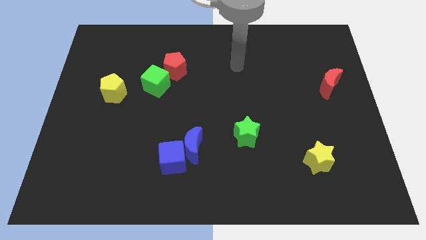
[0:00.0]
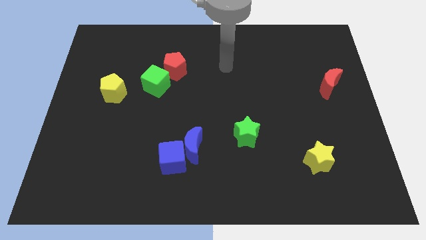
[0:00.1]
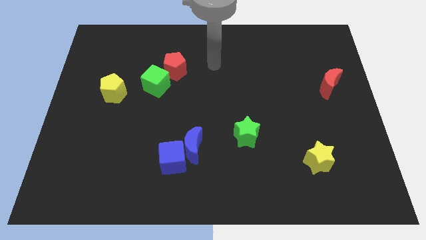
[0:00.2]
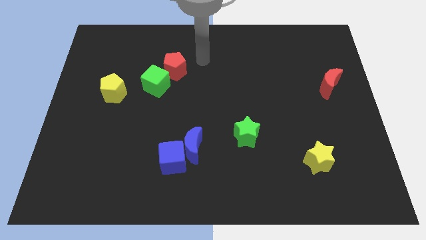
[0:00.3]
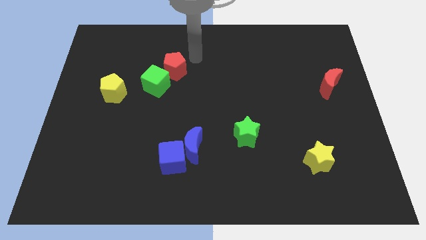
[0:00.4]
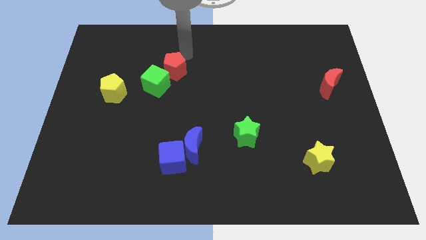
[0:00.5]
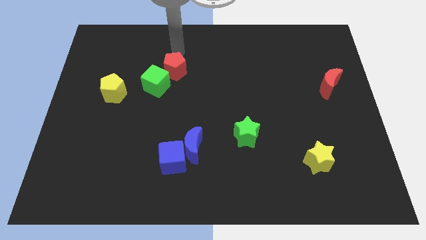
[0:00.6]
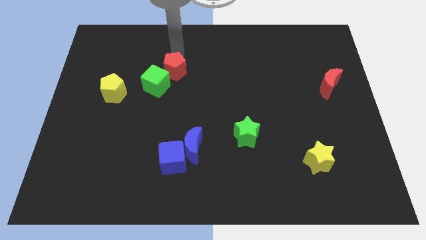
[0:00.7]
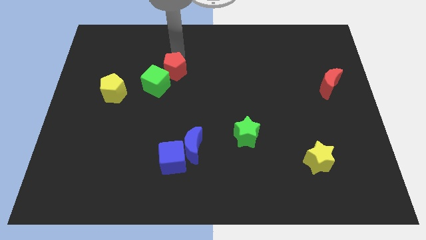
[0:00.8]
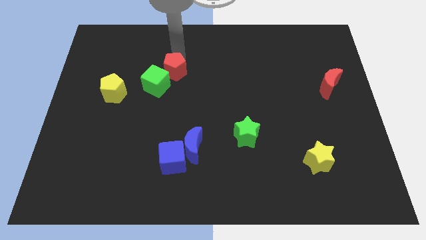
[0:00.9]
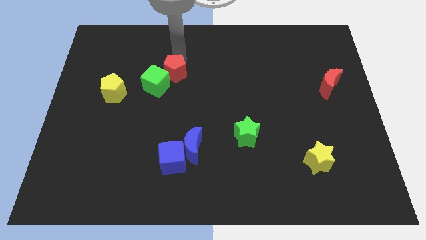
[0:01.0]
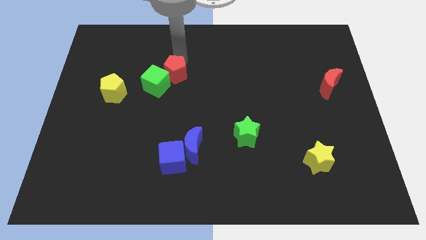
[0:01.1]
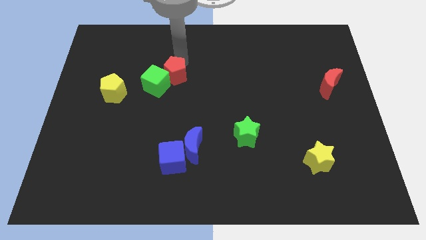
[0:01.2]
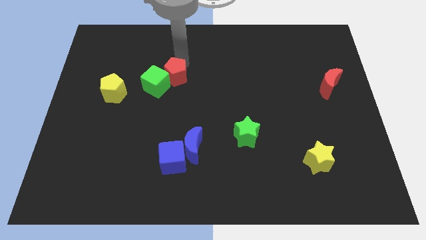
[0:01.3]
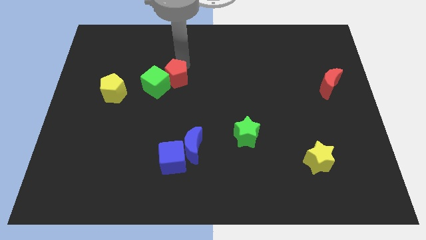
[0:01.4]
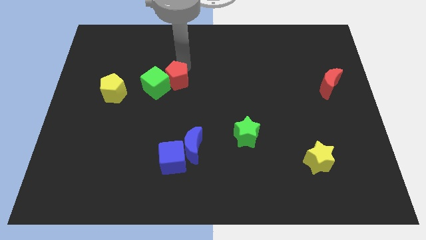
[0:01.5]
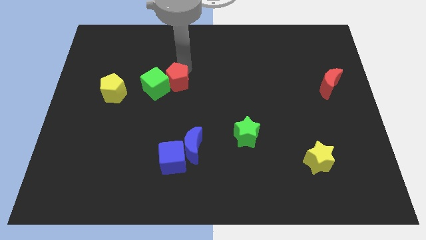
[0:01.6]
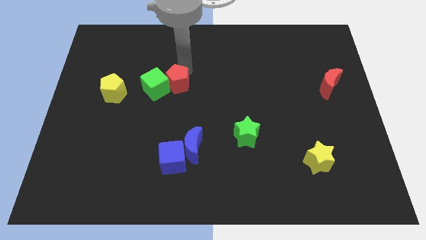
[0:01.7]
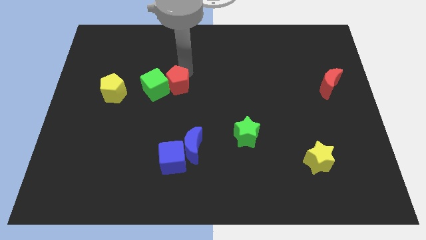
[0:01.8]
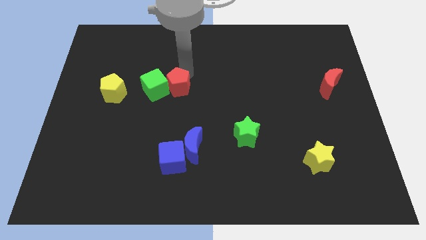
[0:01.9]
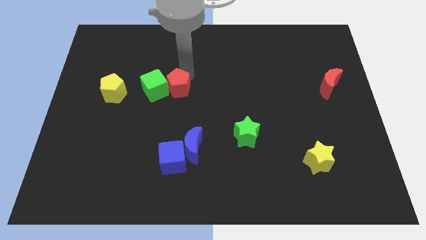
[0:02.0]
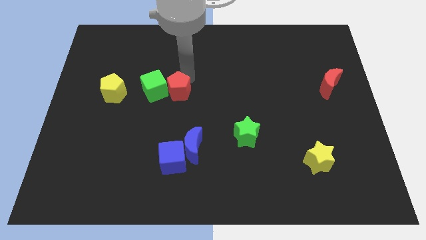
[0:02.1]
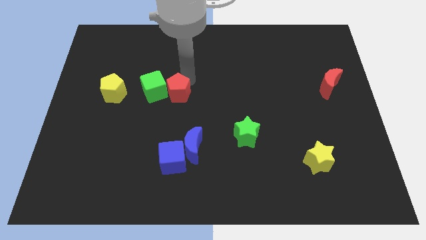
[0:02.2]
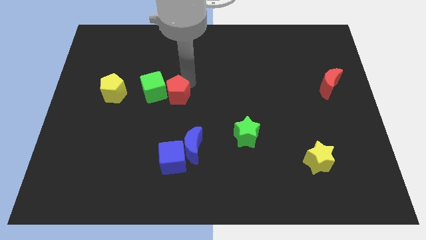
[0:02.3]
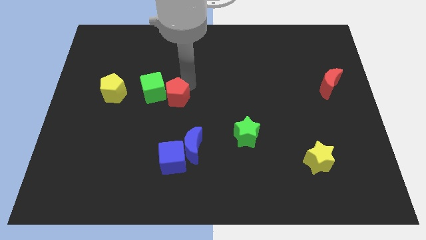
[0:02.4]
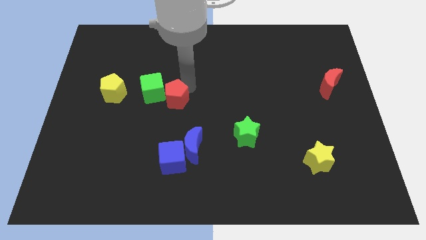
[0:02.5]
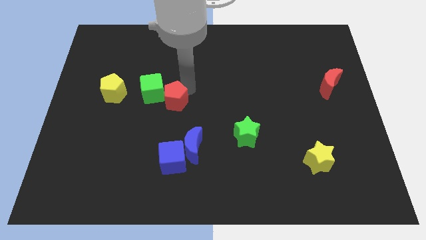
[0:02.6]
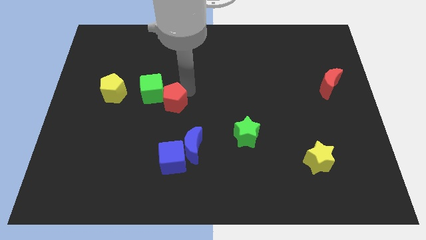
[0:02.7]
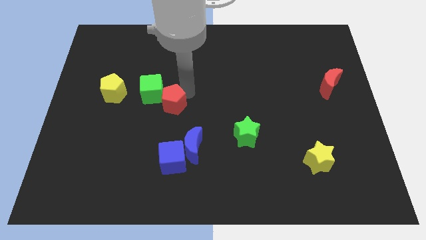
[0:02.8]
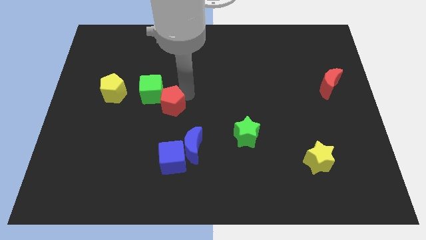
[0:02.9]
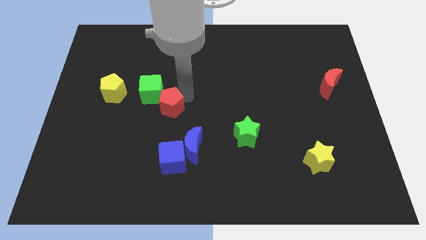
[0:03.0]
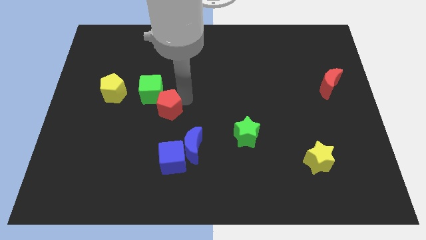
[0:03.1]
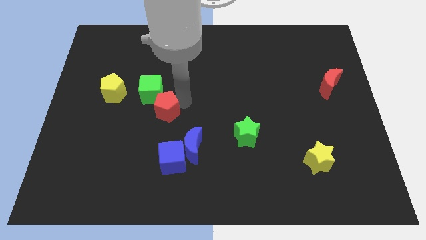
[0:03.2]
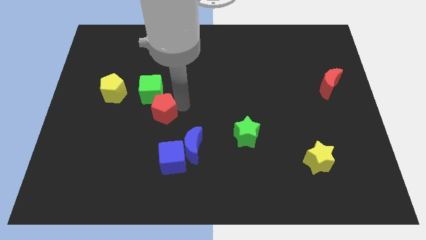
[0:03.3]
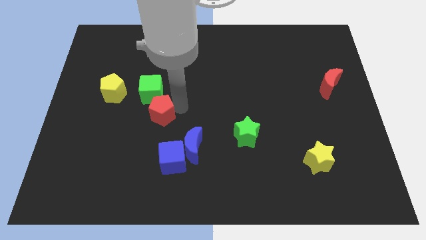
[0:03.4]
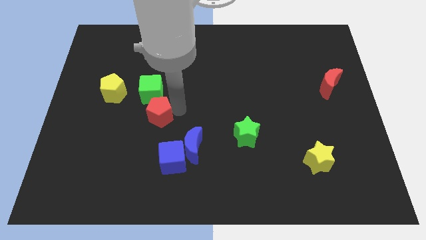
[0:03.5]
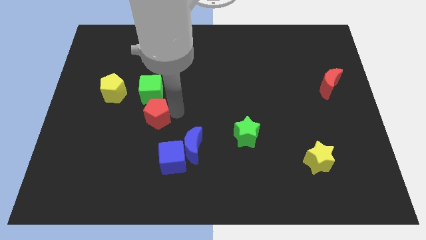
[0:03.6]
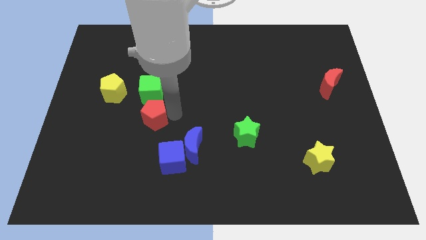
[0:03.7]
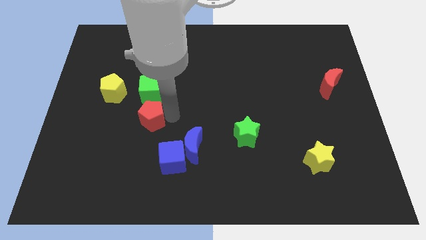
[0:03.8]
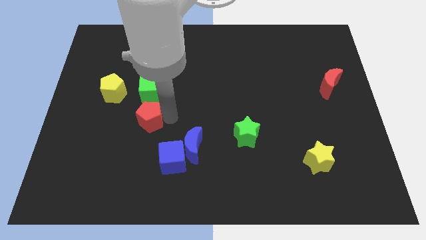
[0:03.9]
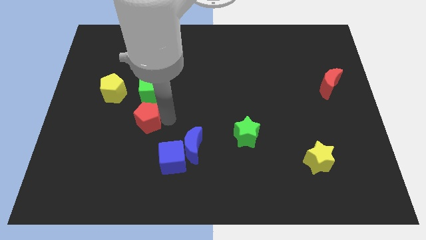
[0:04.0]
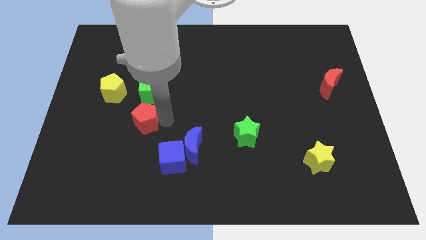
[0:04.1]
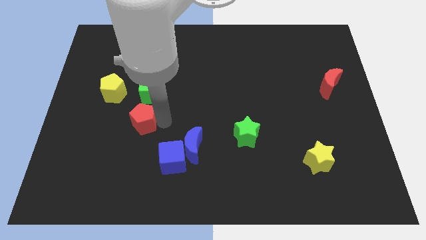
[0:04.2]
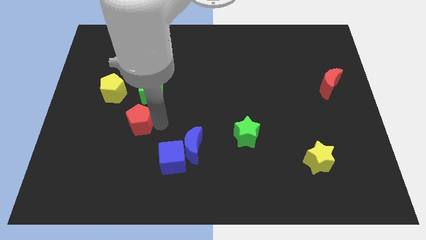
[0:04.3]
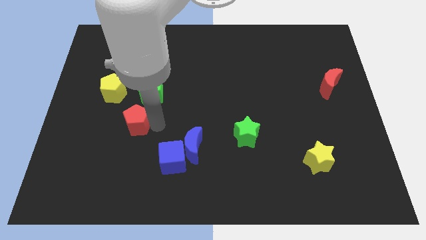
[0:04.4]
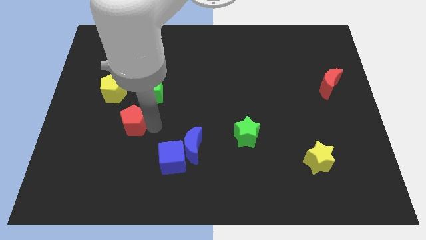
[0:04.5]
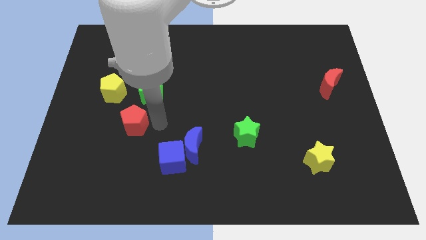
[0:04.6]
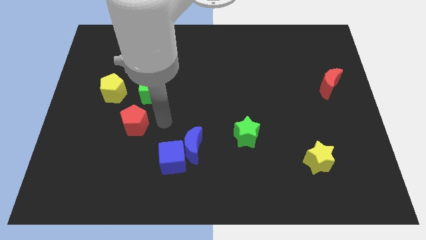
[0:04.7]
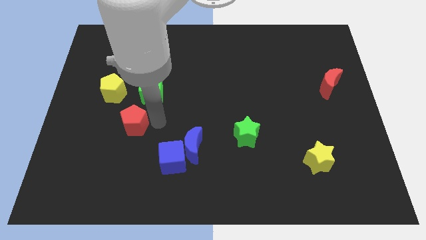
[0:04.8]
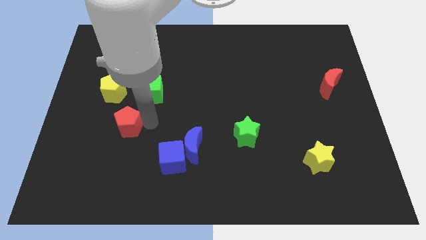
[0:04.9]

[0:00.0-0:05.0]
move the red pentagon to the bottom side of the yellow pentagon

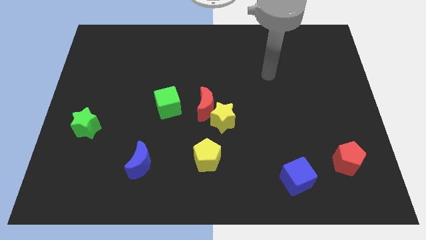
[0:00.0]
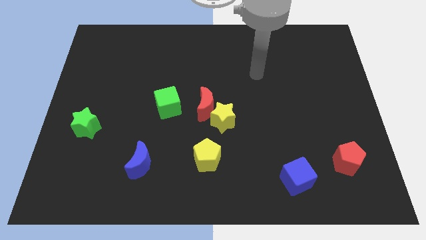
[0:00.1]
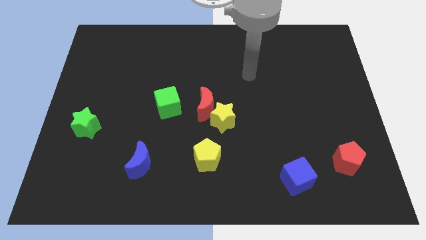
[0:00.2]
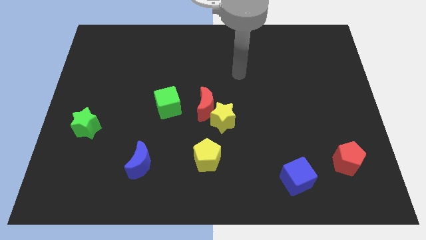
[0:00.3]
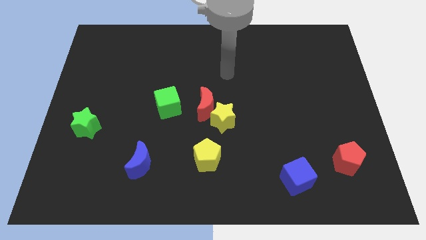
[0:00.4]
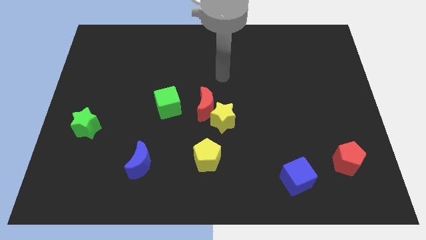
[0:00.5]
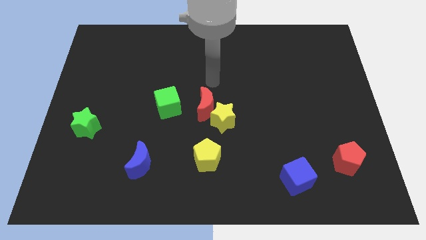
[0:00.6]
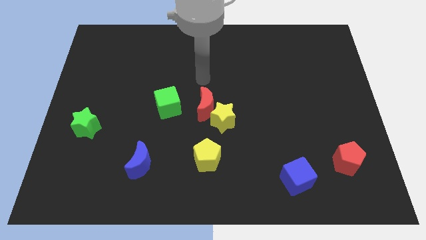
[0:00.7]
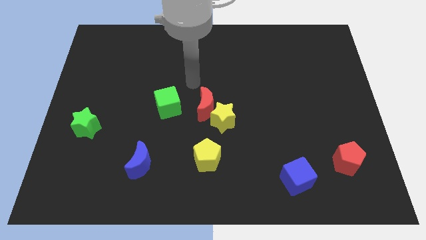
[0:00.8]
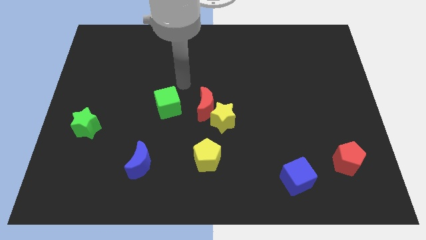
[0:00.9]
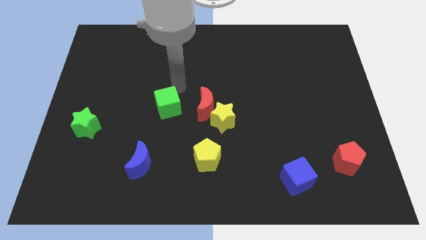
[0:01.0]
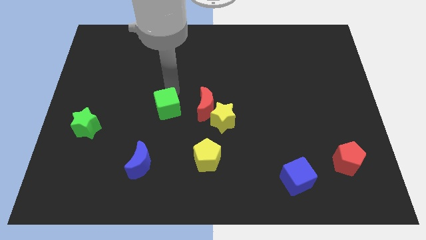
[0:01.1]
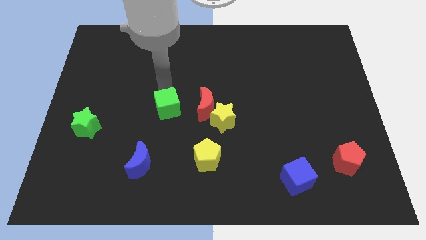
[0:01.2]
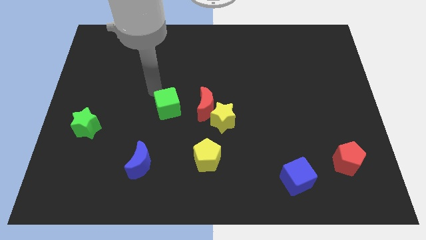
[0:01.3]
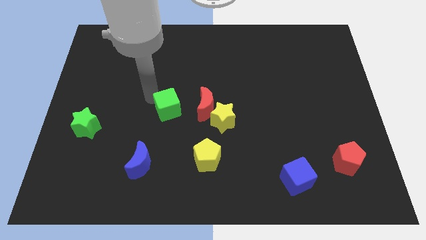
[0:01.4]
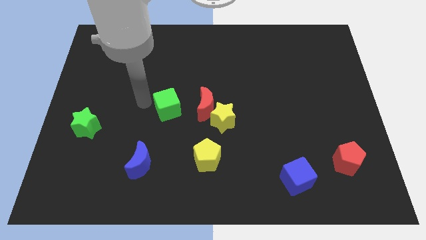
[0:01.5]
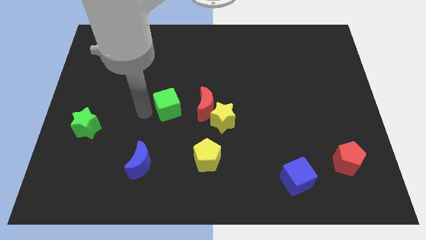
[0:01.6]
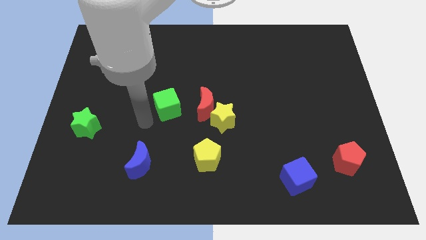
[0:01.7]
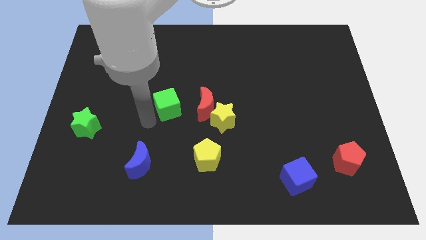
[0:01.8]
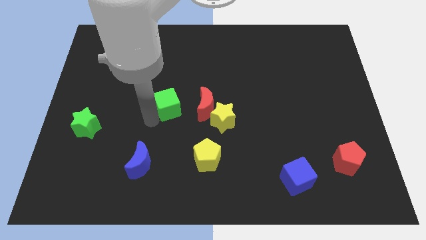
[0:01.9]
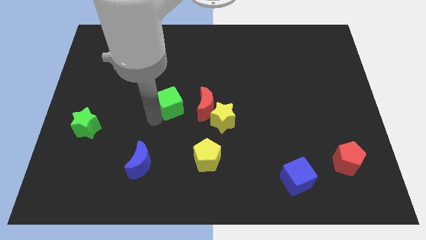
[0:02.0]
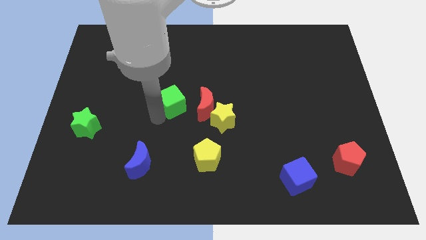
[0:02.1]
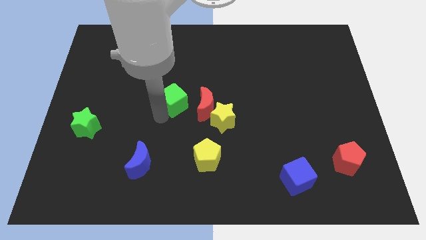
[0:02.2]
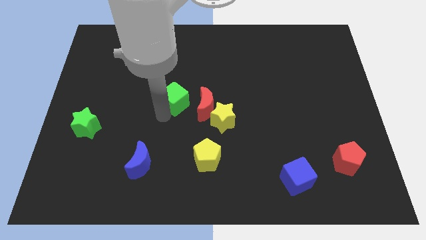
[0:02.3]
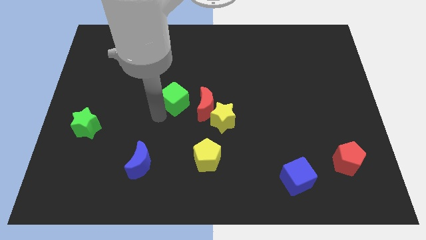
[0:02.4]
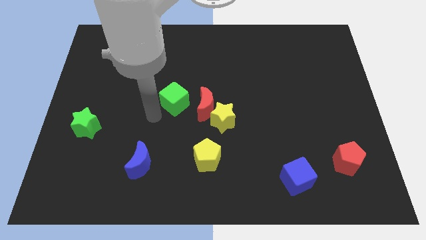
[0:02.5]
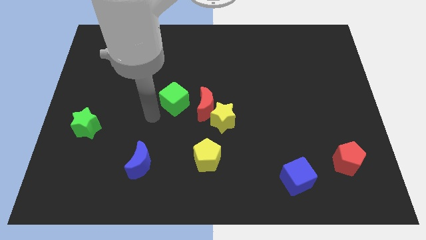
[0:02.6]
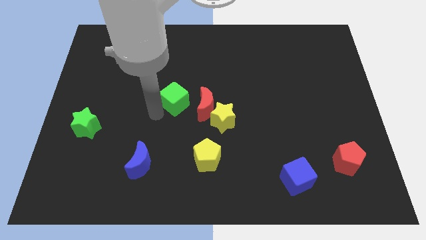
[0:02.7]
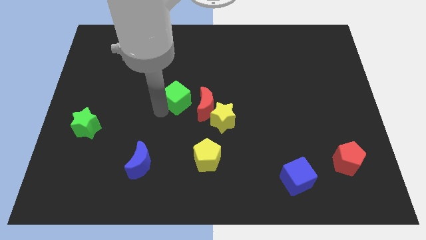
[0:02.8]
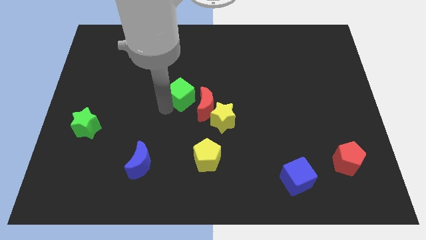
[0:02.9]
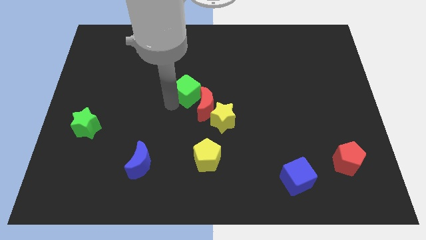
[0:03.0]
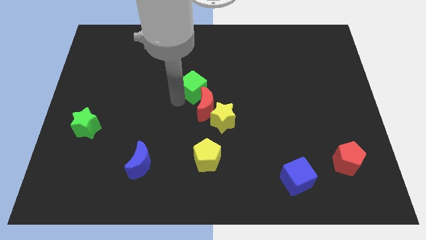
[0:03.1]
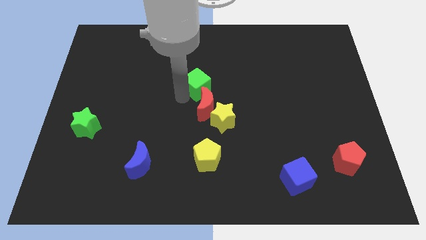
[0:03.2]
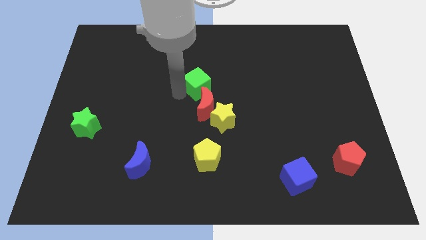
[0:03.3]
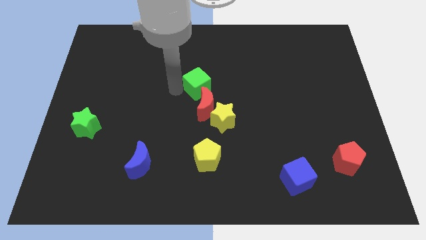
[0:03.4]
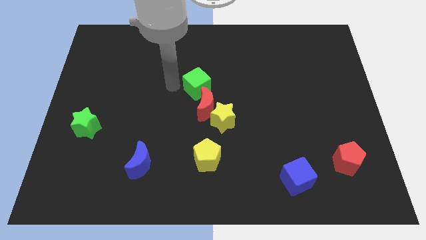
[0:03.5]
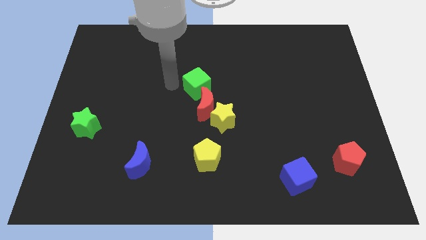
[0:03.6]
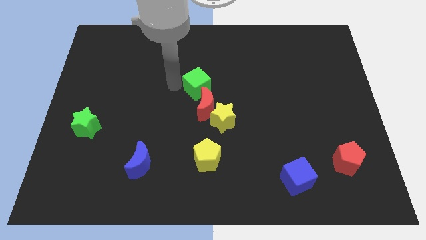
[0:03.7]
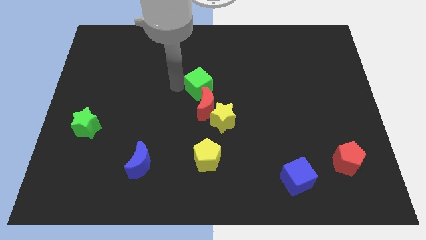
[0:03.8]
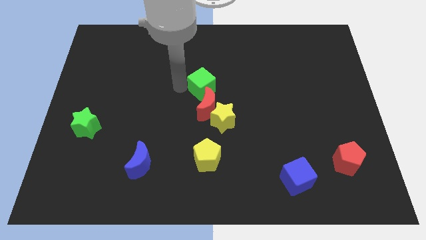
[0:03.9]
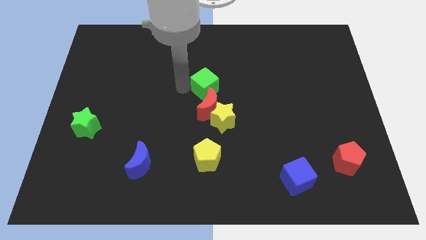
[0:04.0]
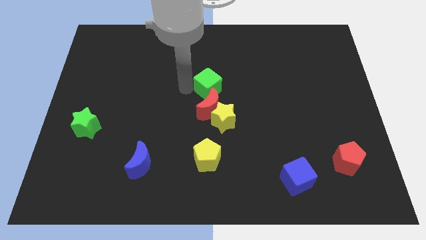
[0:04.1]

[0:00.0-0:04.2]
push the green cube to the top right side of the red moon
